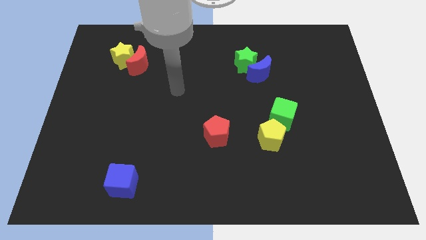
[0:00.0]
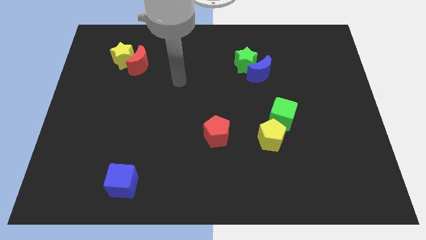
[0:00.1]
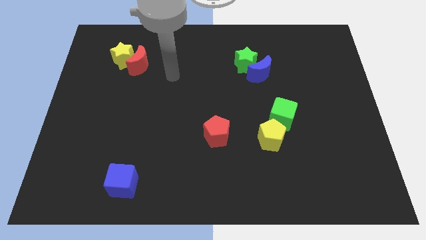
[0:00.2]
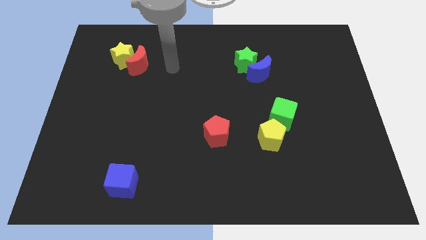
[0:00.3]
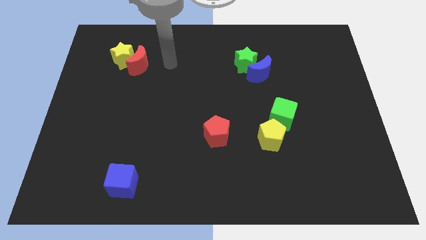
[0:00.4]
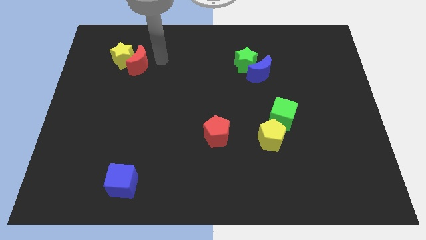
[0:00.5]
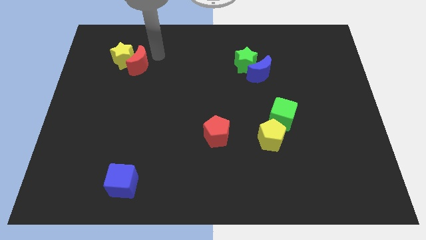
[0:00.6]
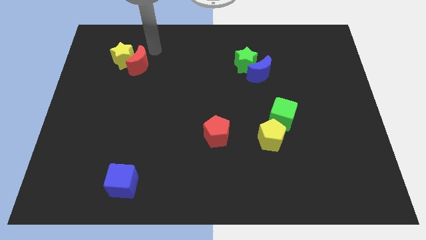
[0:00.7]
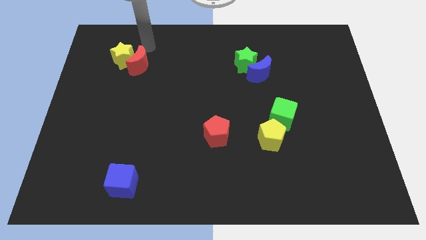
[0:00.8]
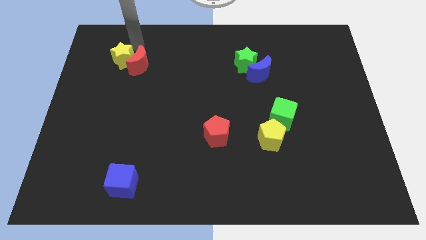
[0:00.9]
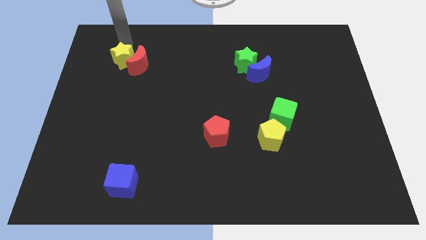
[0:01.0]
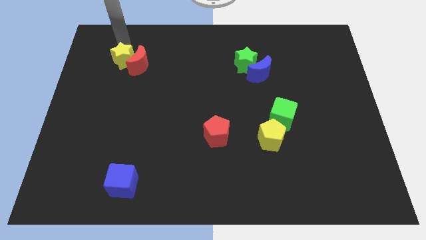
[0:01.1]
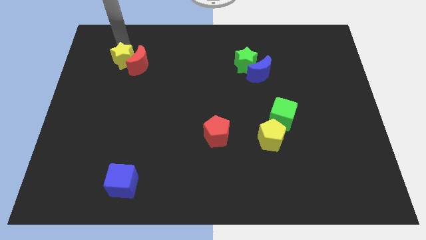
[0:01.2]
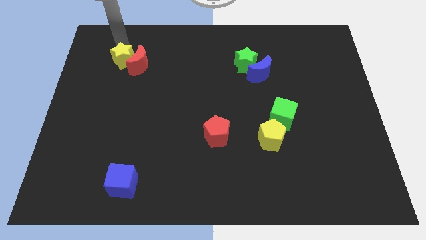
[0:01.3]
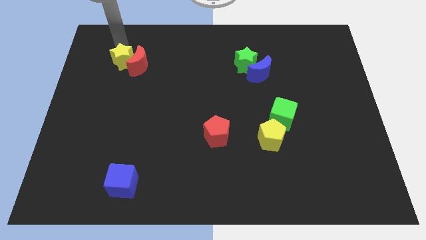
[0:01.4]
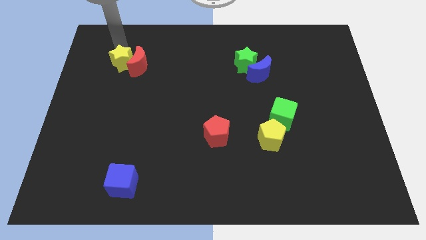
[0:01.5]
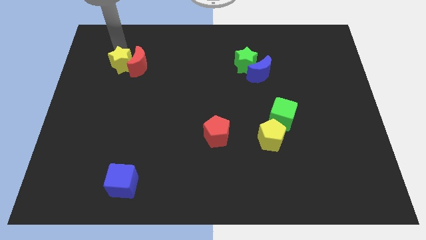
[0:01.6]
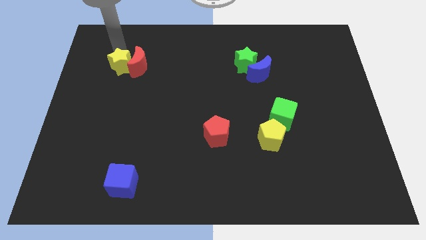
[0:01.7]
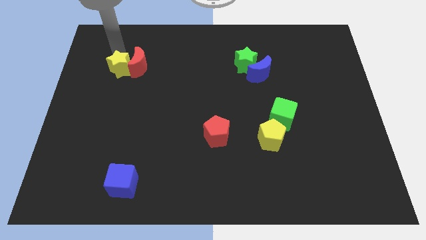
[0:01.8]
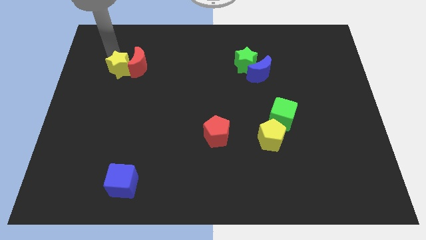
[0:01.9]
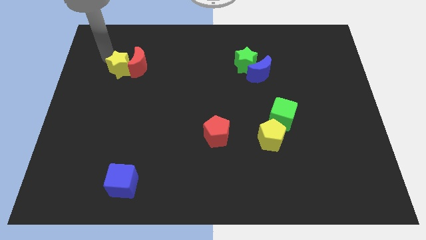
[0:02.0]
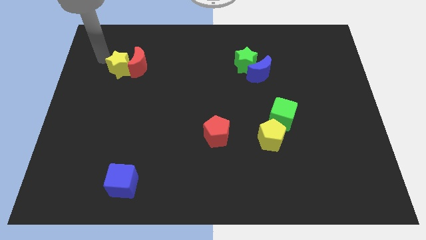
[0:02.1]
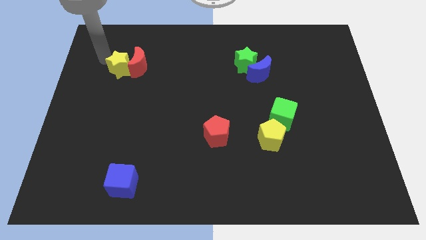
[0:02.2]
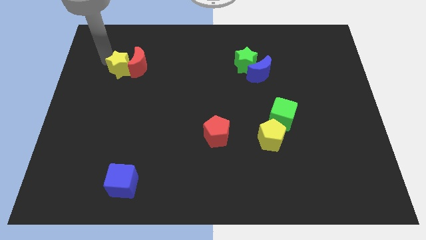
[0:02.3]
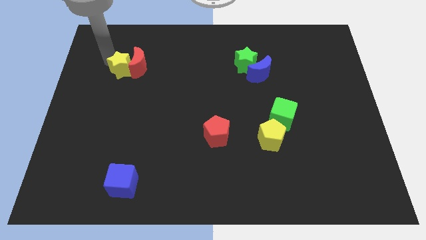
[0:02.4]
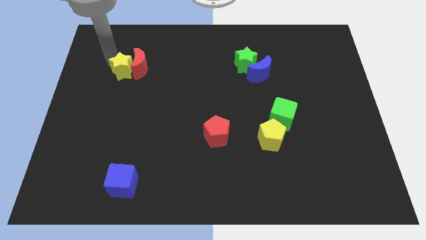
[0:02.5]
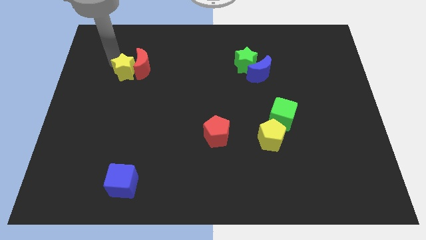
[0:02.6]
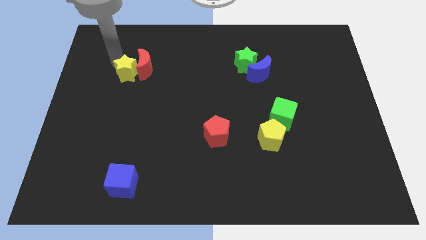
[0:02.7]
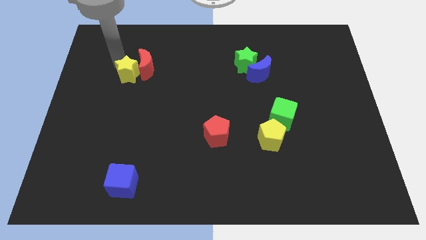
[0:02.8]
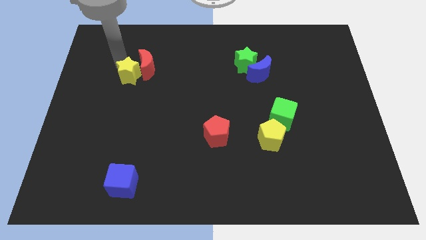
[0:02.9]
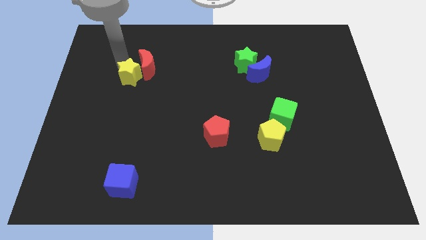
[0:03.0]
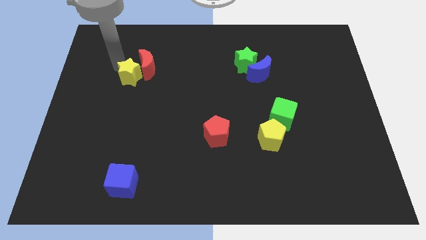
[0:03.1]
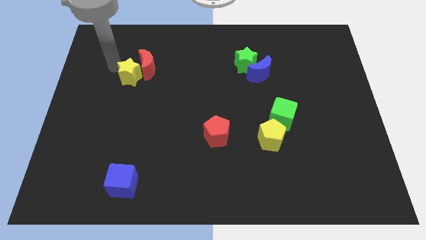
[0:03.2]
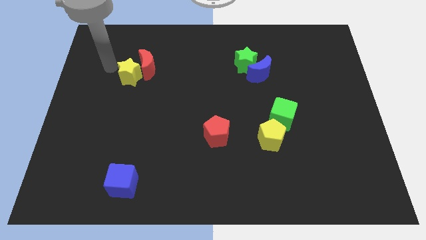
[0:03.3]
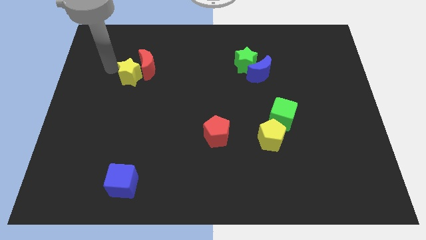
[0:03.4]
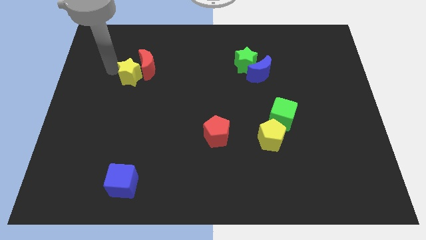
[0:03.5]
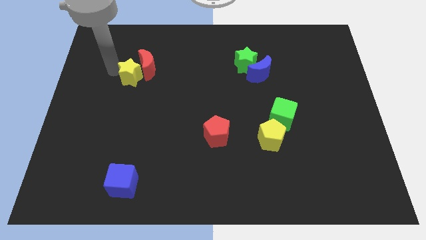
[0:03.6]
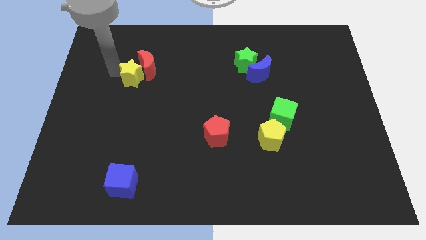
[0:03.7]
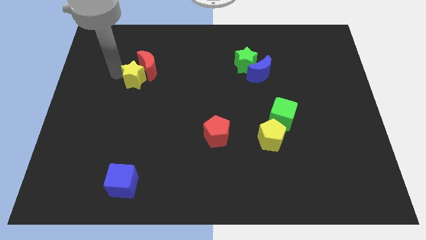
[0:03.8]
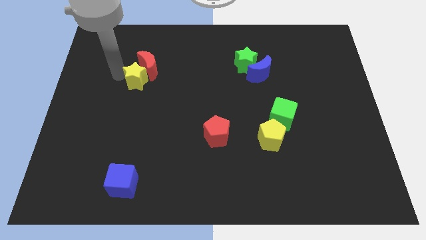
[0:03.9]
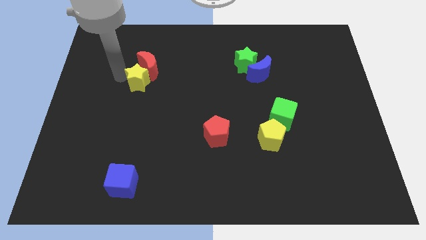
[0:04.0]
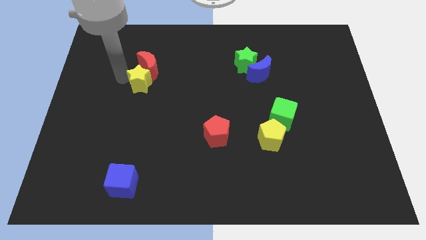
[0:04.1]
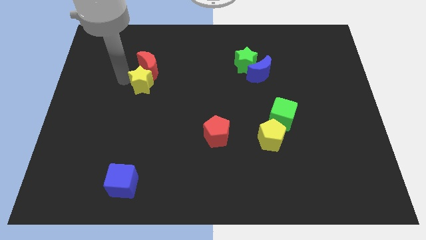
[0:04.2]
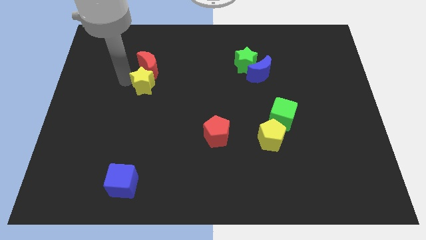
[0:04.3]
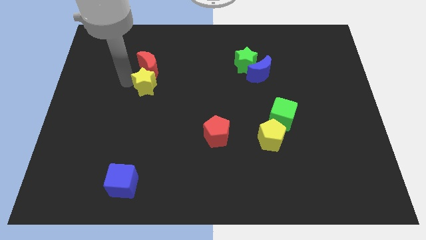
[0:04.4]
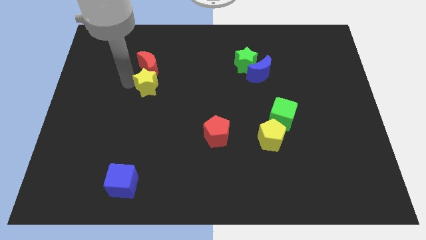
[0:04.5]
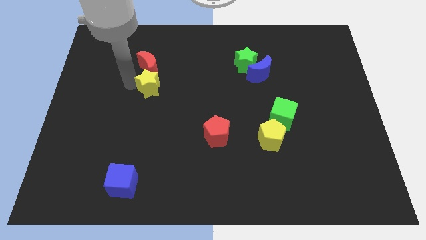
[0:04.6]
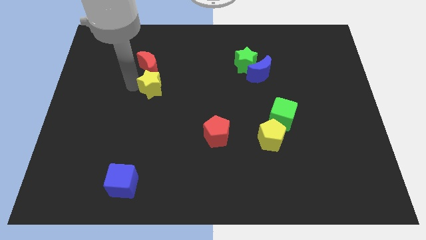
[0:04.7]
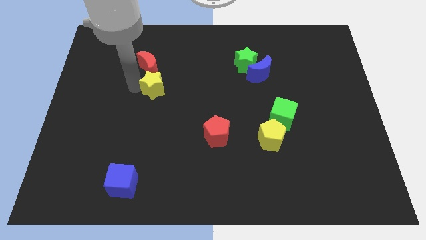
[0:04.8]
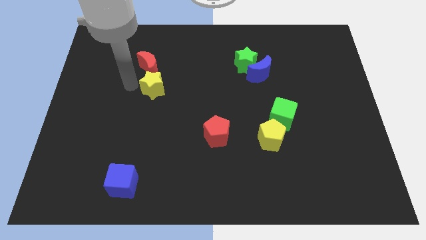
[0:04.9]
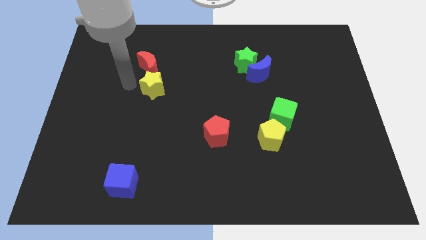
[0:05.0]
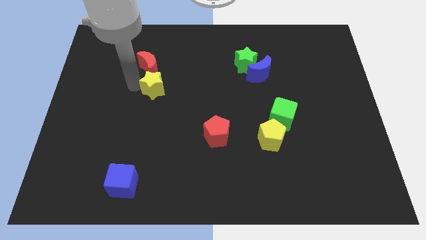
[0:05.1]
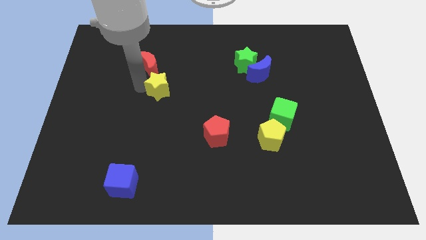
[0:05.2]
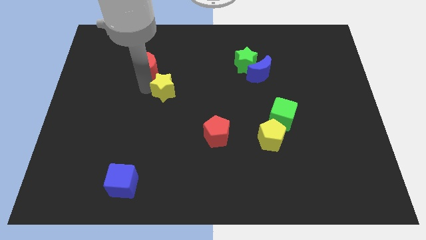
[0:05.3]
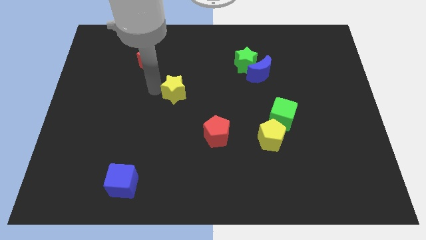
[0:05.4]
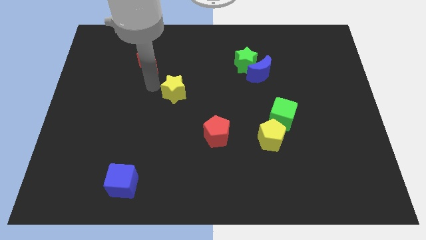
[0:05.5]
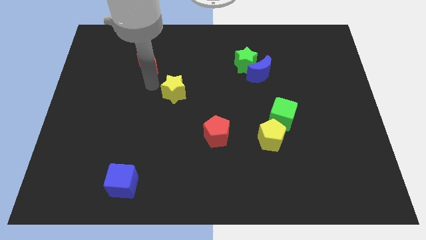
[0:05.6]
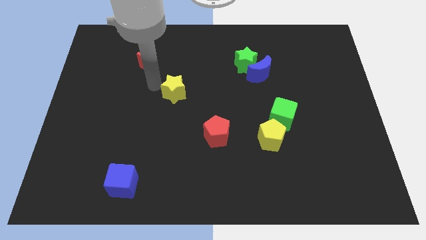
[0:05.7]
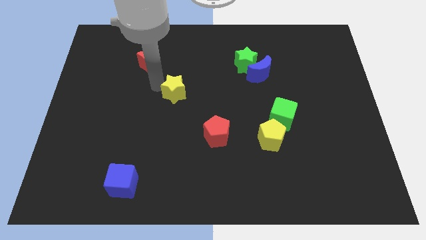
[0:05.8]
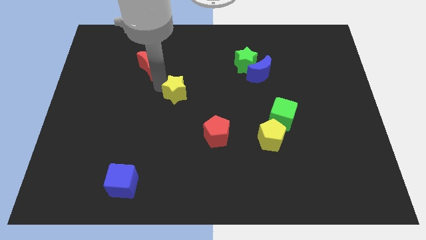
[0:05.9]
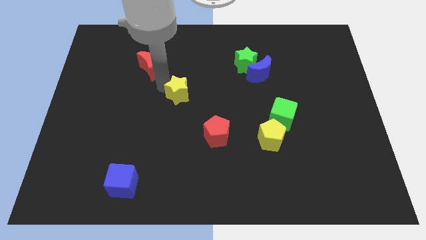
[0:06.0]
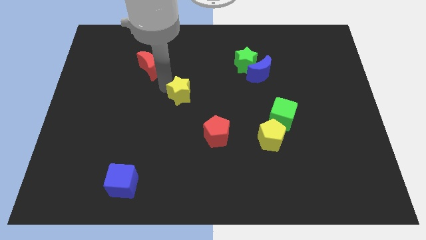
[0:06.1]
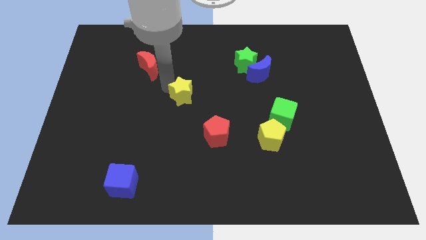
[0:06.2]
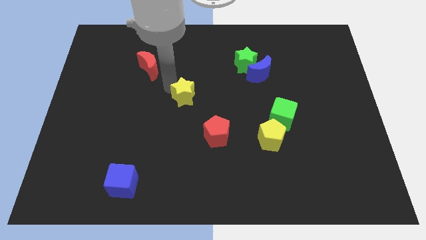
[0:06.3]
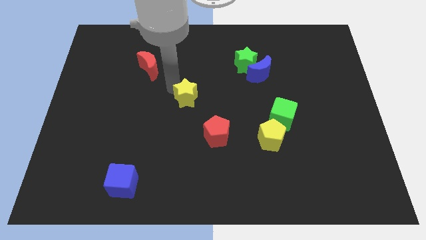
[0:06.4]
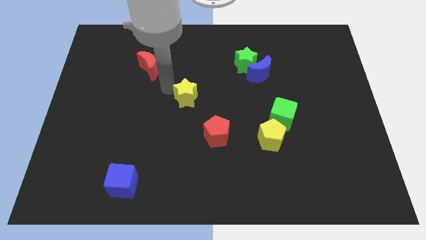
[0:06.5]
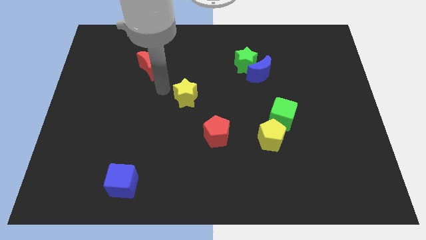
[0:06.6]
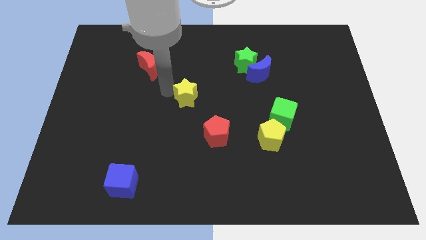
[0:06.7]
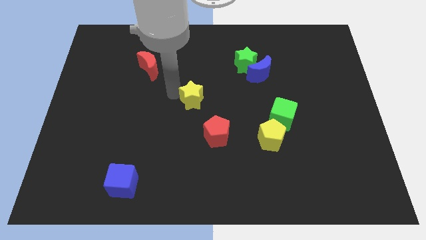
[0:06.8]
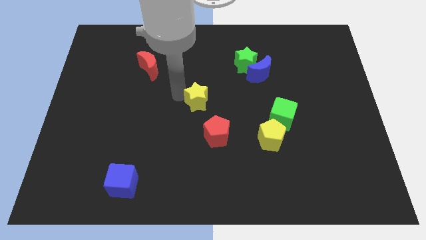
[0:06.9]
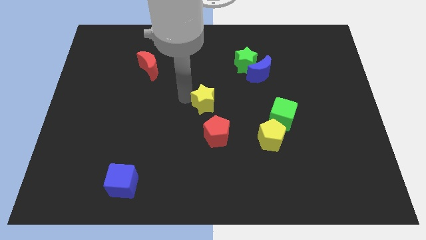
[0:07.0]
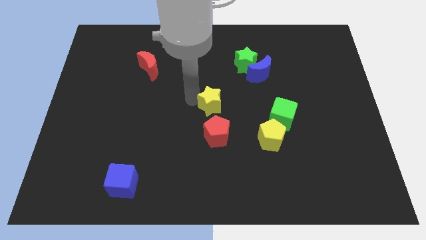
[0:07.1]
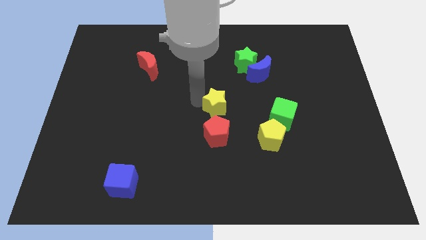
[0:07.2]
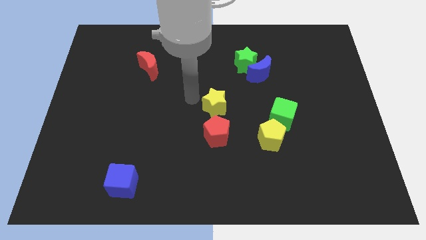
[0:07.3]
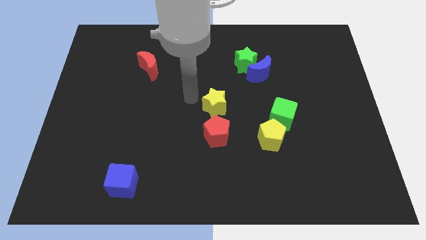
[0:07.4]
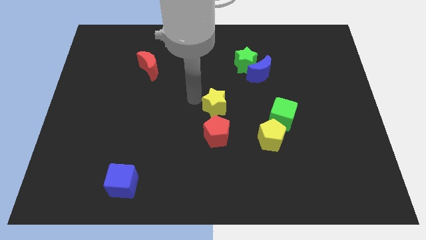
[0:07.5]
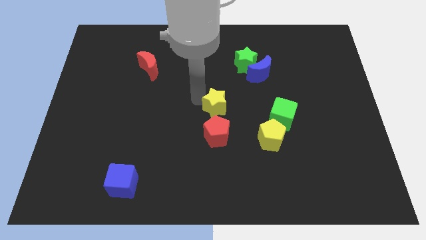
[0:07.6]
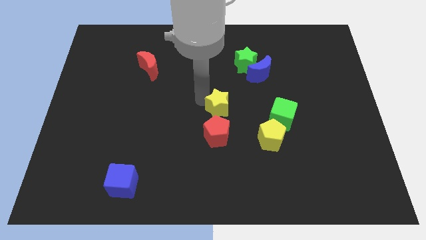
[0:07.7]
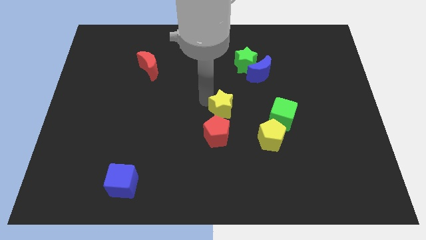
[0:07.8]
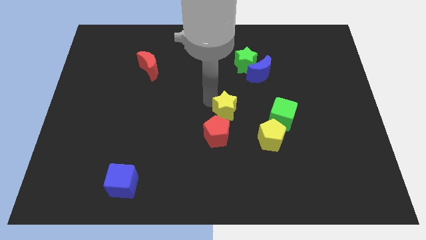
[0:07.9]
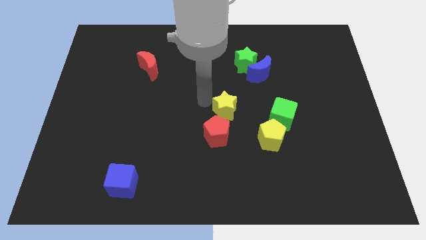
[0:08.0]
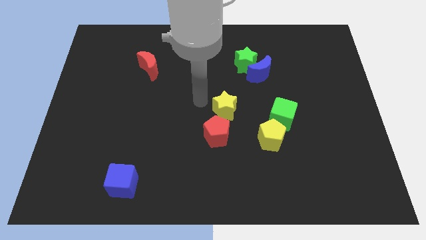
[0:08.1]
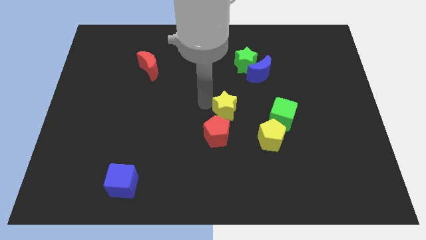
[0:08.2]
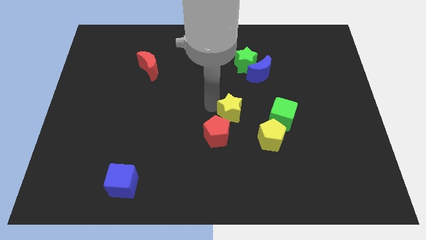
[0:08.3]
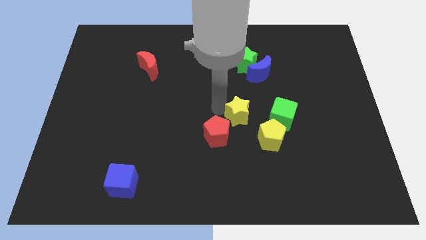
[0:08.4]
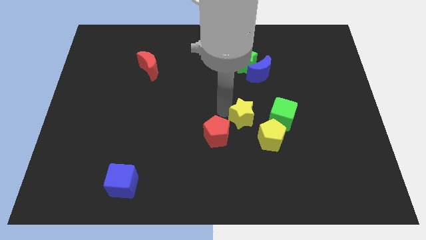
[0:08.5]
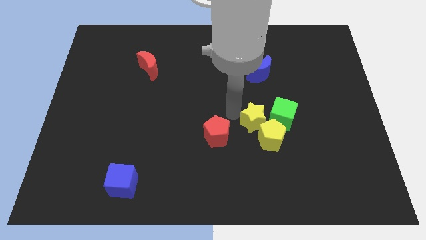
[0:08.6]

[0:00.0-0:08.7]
move the yellow star next to the yellow pentagon
